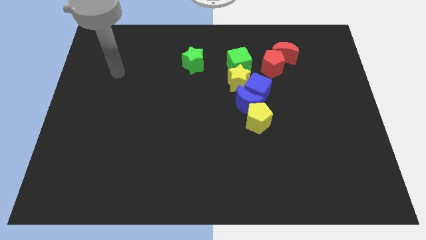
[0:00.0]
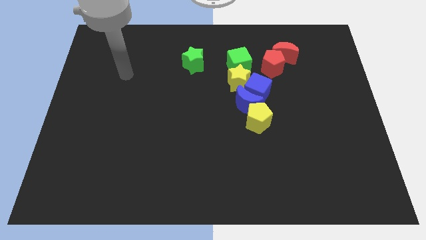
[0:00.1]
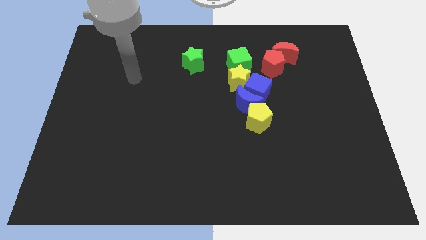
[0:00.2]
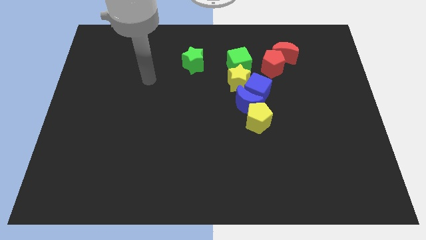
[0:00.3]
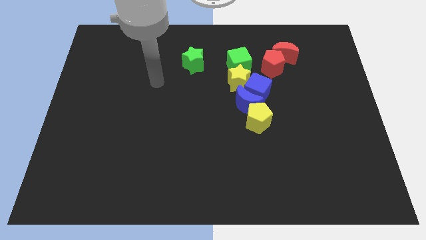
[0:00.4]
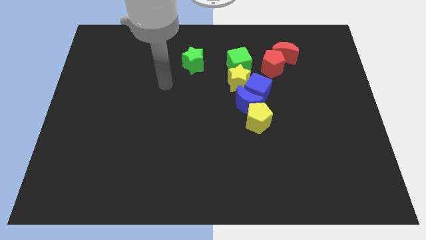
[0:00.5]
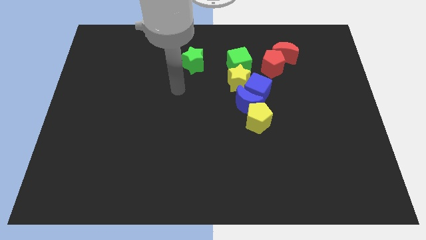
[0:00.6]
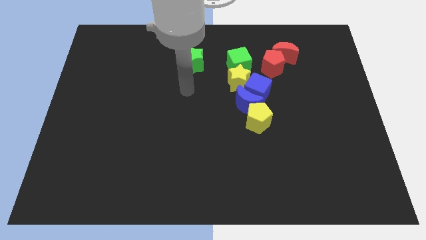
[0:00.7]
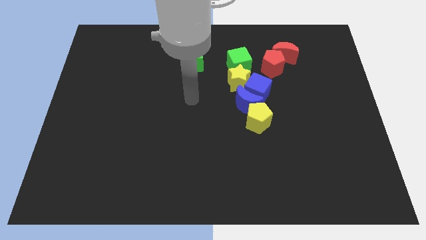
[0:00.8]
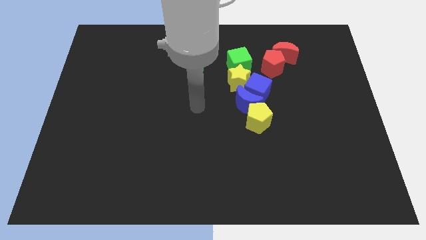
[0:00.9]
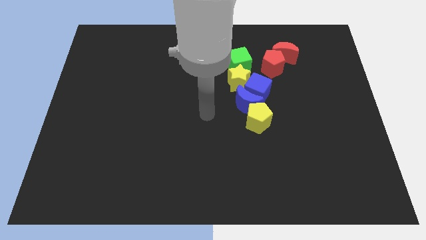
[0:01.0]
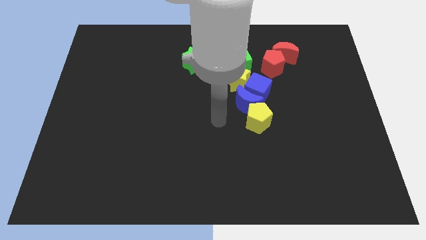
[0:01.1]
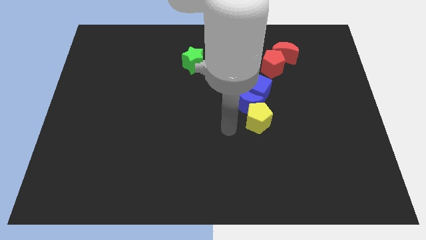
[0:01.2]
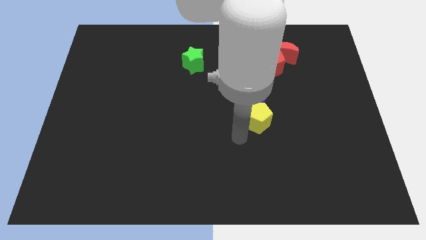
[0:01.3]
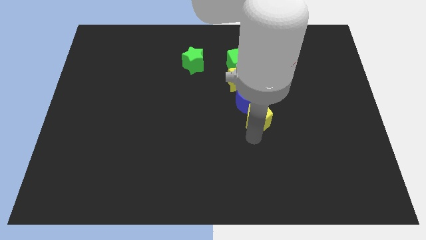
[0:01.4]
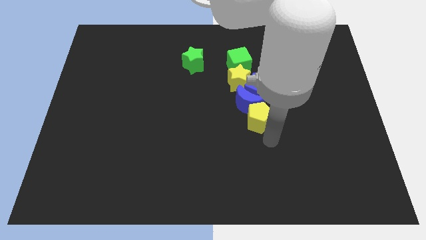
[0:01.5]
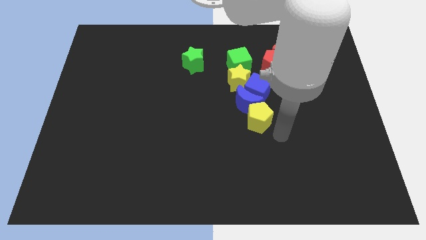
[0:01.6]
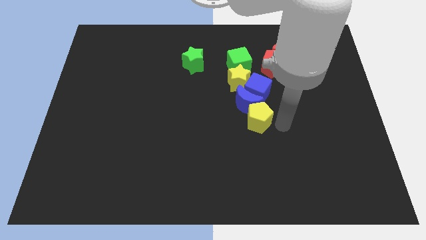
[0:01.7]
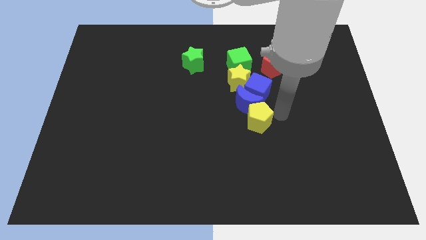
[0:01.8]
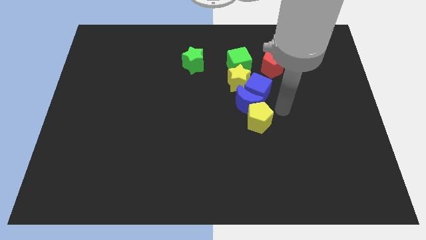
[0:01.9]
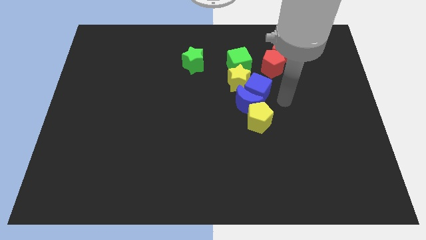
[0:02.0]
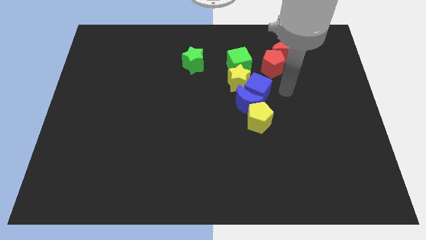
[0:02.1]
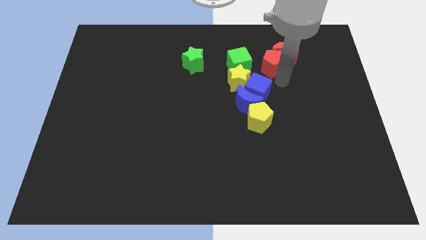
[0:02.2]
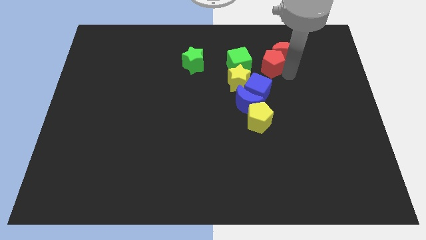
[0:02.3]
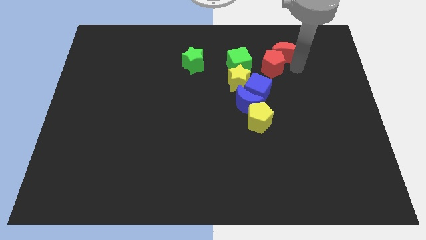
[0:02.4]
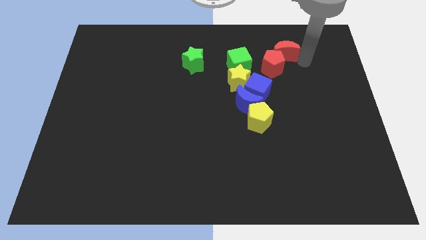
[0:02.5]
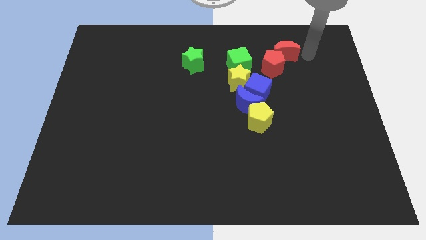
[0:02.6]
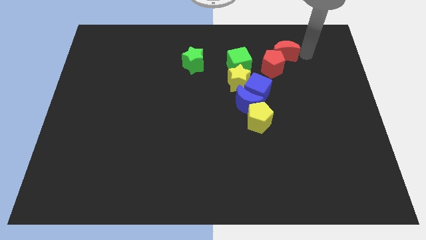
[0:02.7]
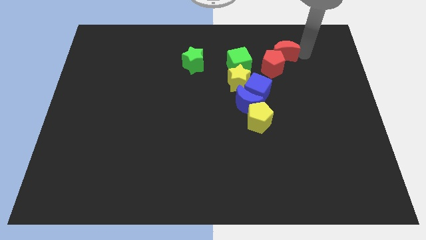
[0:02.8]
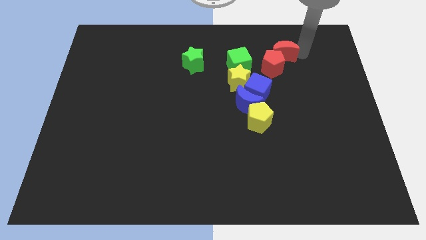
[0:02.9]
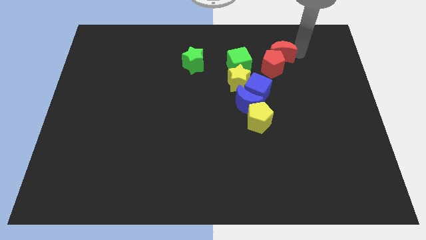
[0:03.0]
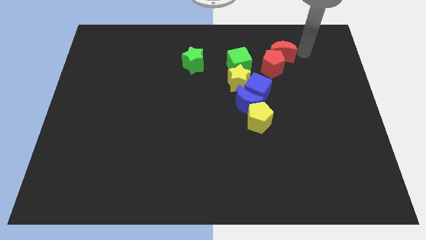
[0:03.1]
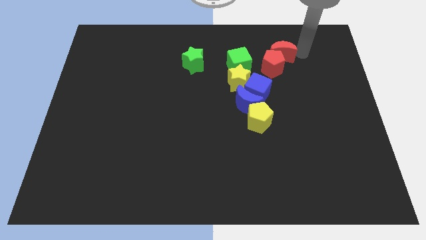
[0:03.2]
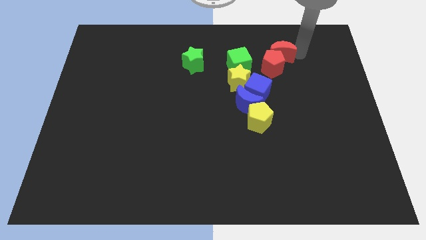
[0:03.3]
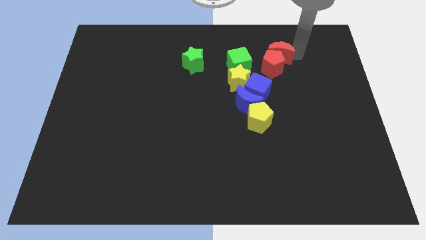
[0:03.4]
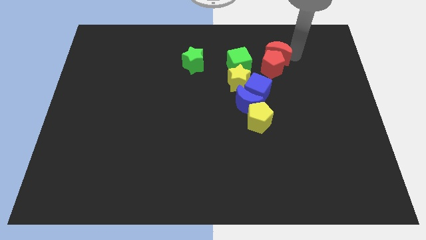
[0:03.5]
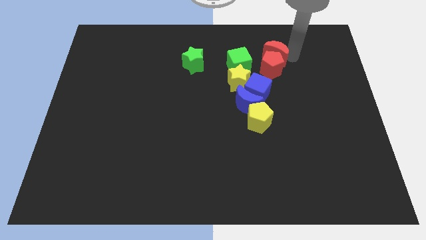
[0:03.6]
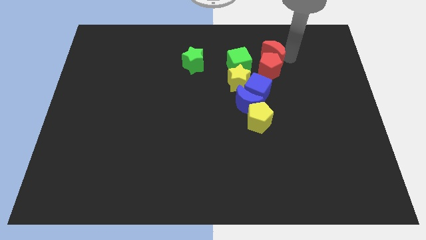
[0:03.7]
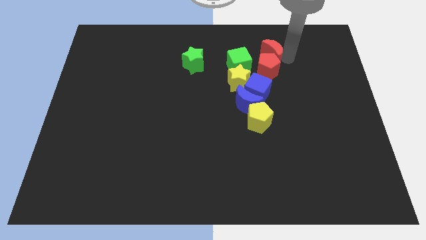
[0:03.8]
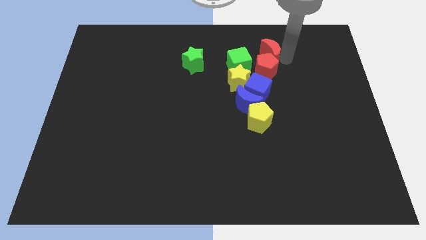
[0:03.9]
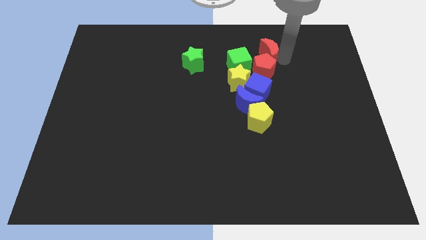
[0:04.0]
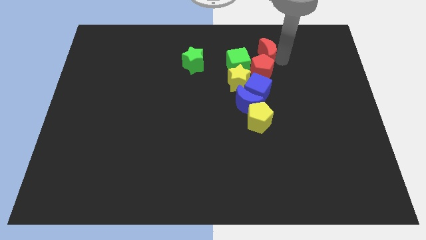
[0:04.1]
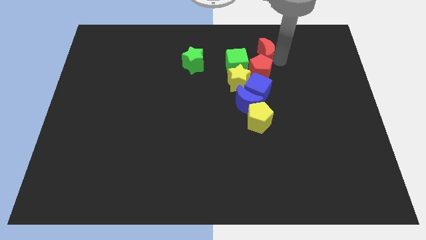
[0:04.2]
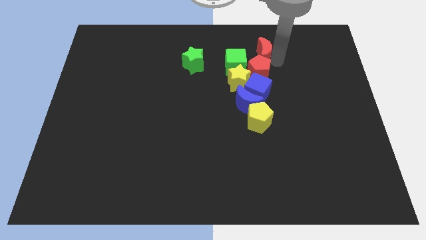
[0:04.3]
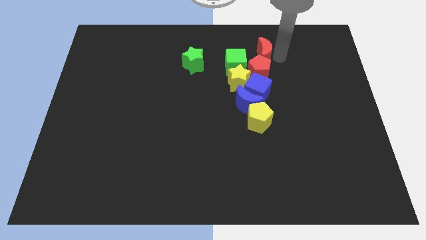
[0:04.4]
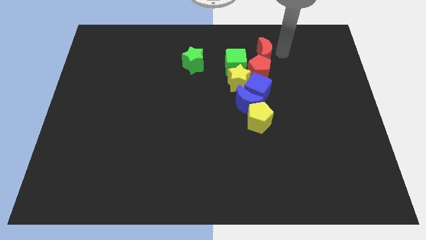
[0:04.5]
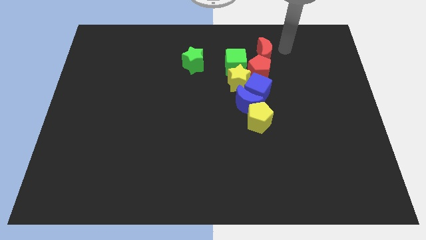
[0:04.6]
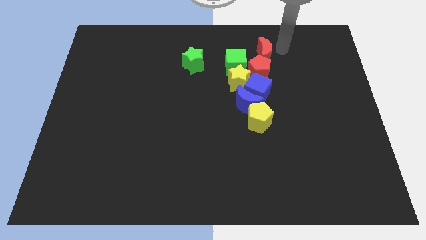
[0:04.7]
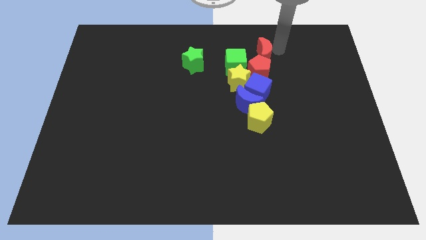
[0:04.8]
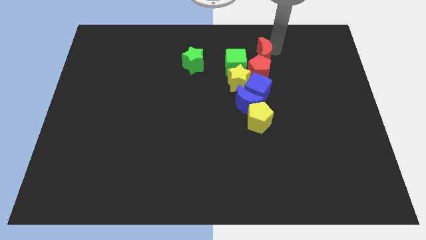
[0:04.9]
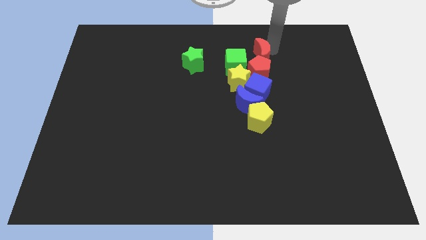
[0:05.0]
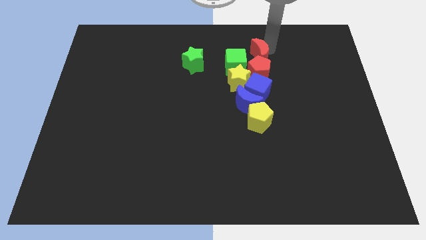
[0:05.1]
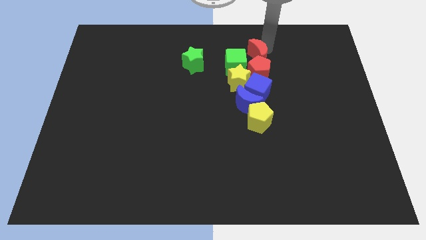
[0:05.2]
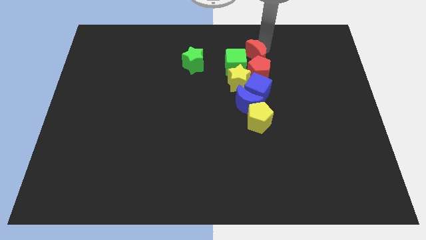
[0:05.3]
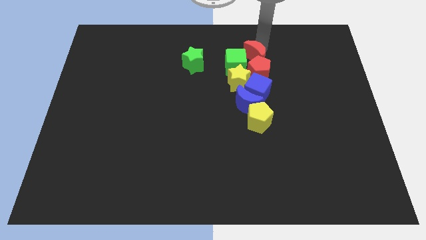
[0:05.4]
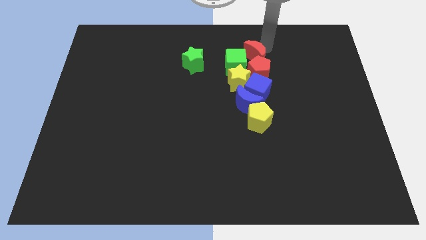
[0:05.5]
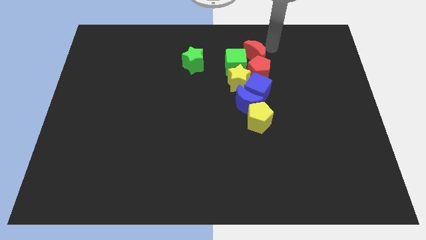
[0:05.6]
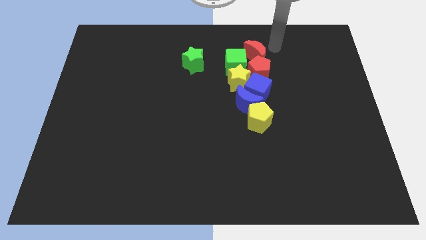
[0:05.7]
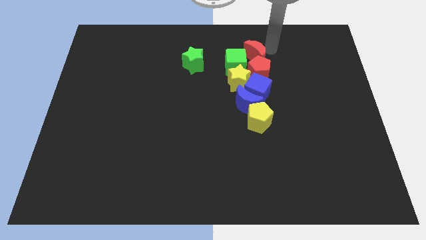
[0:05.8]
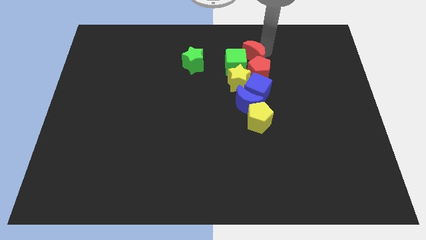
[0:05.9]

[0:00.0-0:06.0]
put the red moon close to the green cube

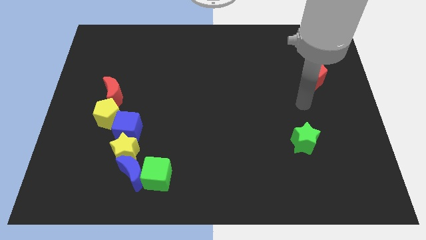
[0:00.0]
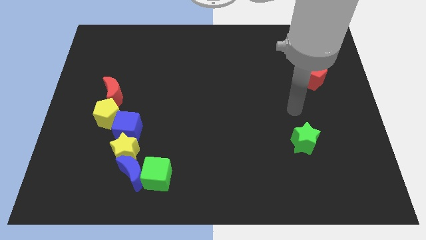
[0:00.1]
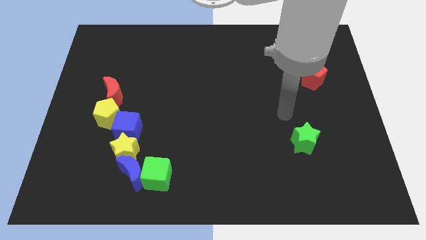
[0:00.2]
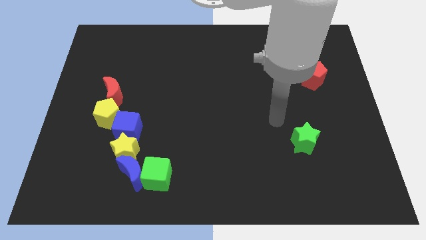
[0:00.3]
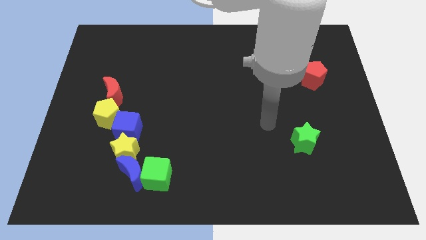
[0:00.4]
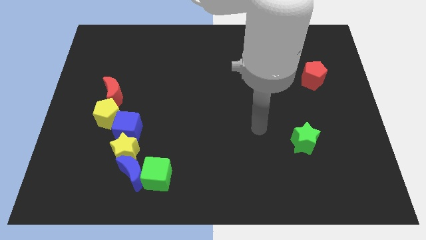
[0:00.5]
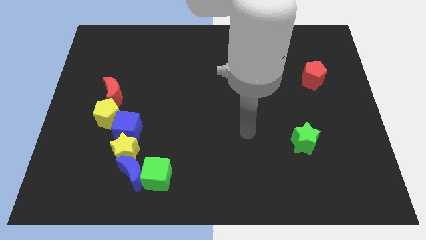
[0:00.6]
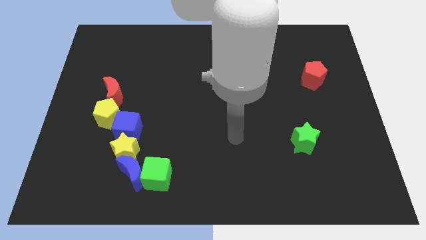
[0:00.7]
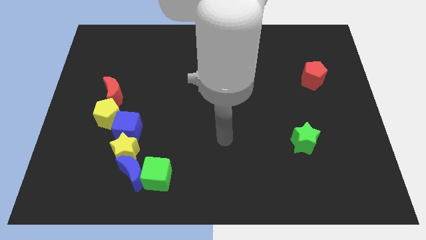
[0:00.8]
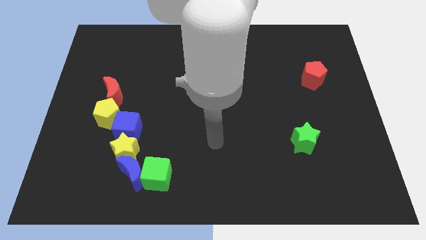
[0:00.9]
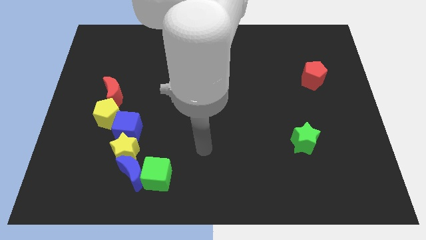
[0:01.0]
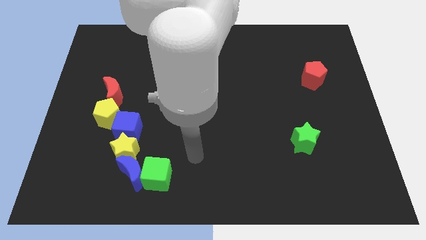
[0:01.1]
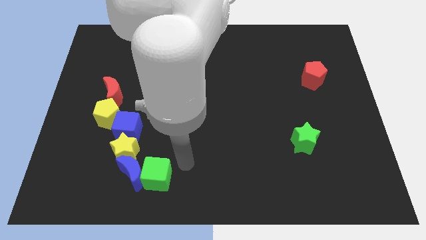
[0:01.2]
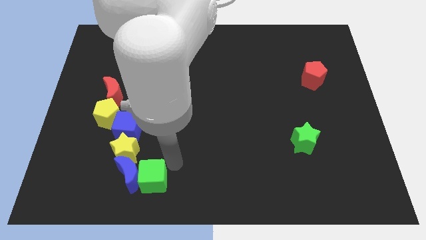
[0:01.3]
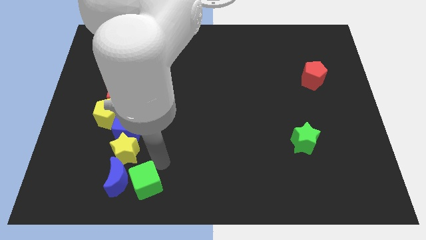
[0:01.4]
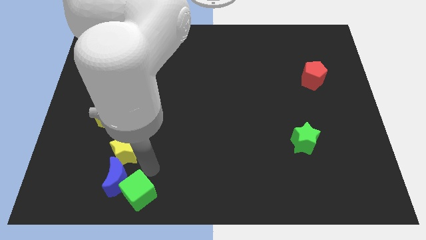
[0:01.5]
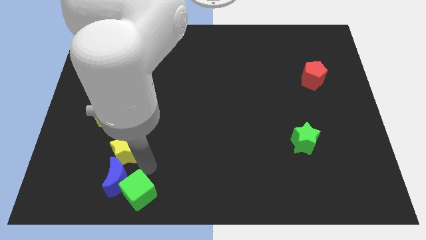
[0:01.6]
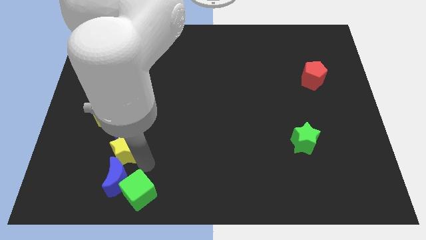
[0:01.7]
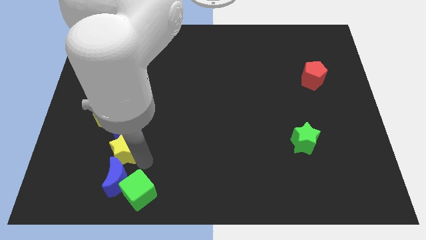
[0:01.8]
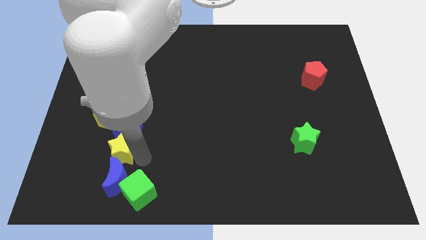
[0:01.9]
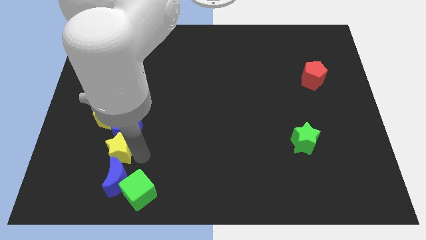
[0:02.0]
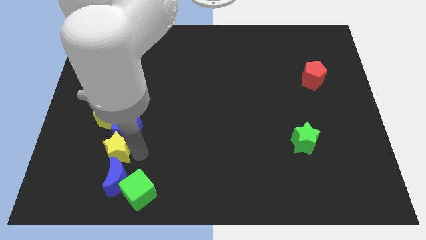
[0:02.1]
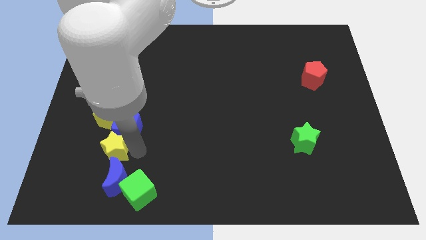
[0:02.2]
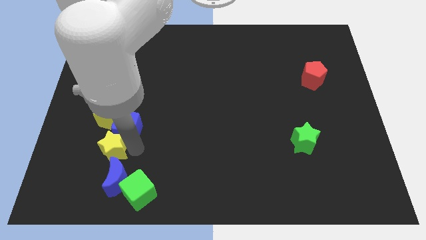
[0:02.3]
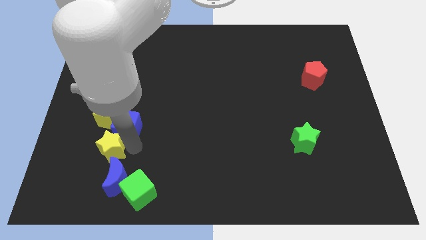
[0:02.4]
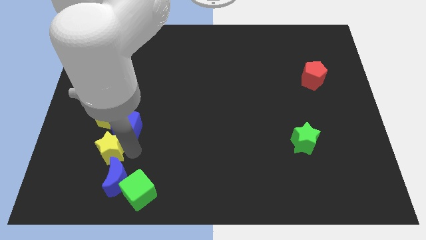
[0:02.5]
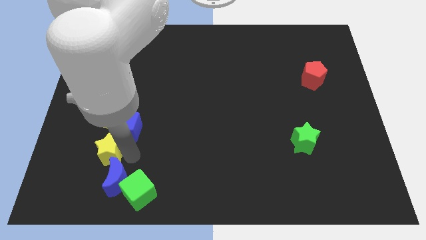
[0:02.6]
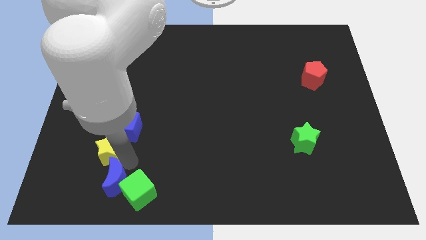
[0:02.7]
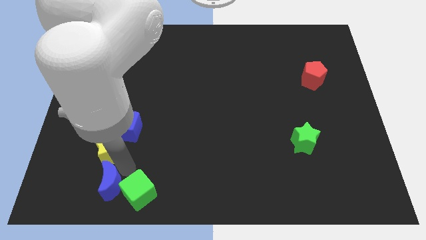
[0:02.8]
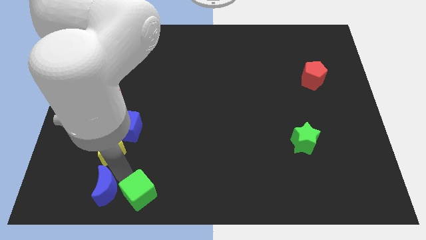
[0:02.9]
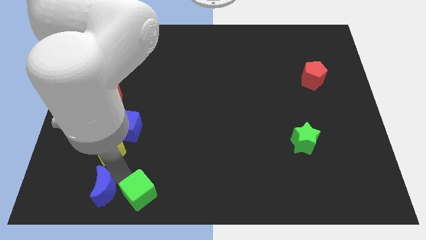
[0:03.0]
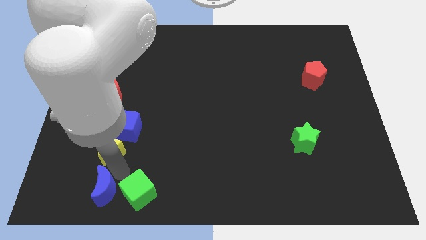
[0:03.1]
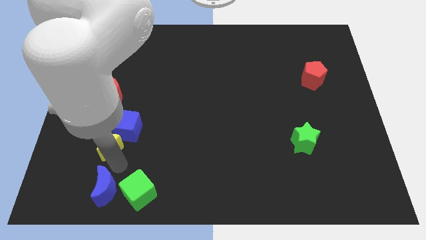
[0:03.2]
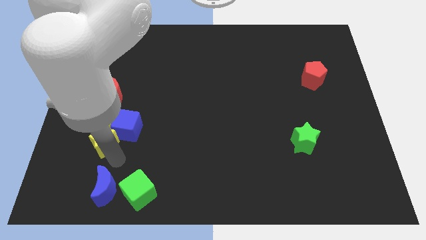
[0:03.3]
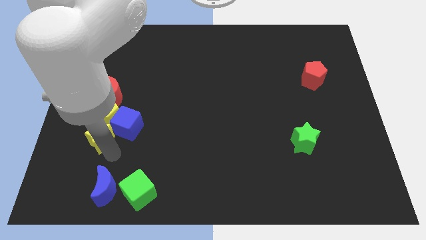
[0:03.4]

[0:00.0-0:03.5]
push the yellow star close to the yellow pentagon
